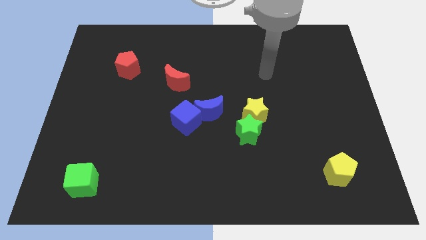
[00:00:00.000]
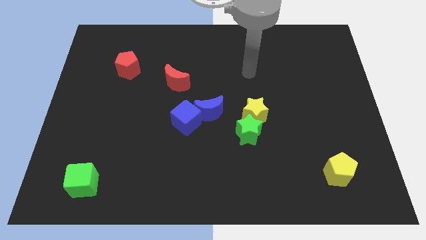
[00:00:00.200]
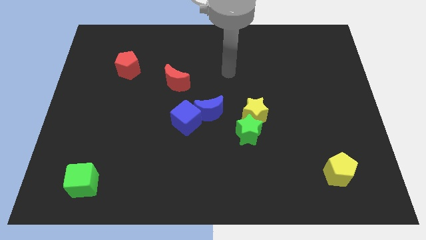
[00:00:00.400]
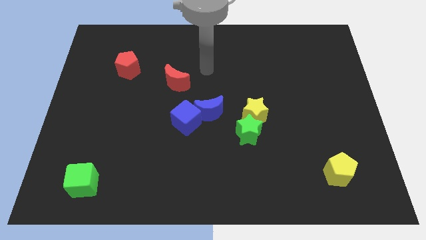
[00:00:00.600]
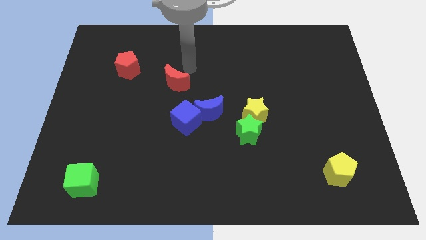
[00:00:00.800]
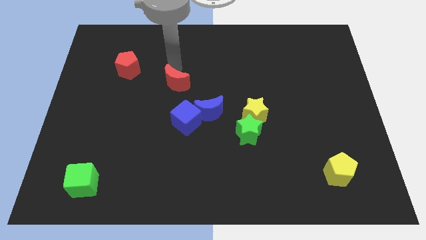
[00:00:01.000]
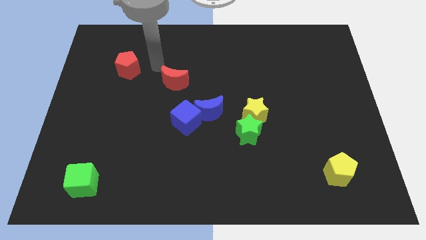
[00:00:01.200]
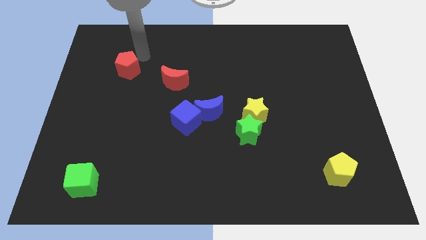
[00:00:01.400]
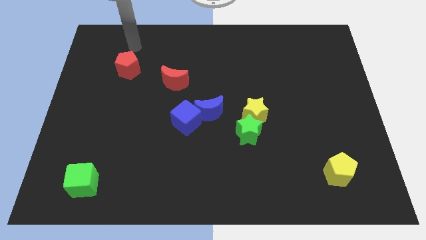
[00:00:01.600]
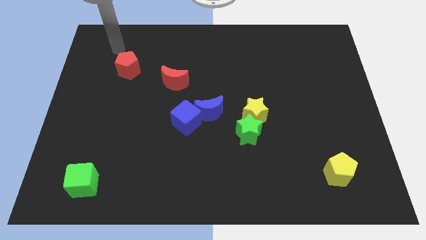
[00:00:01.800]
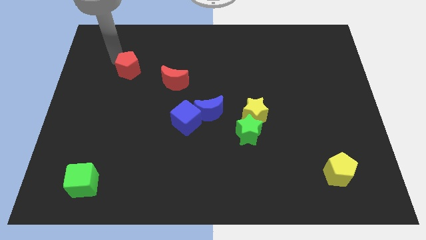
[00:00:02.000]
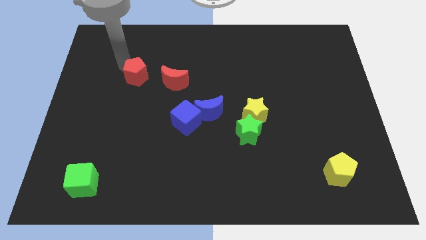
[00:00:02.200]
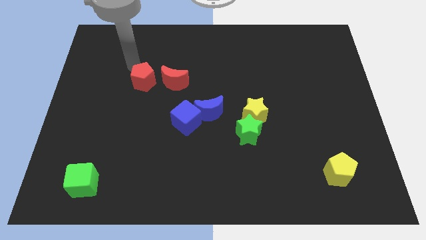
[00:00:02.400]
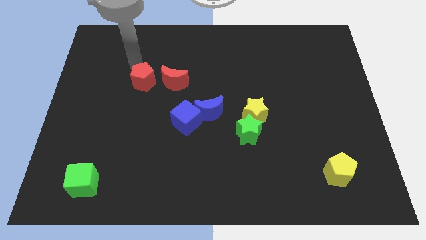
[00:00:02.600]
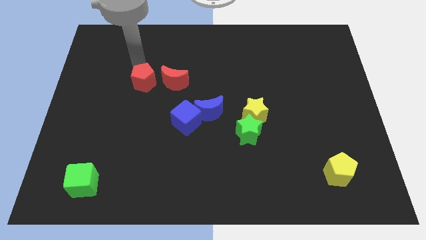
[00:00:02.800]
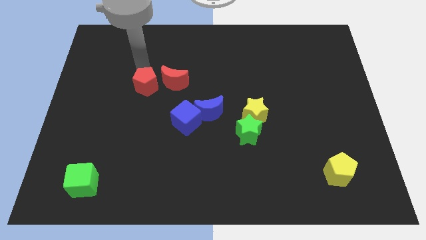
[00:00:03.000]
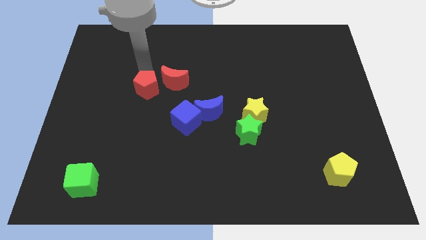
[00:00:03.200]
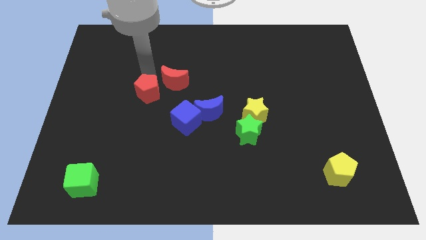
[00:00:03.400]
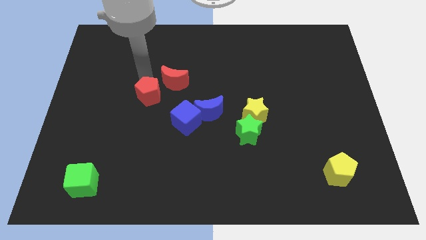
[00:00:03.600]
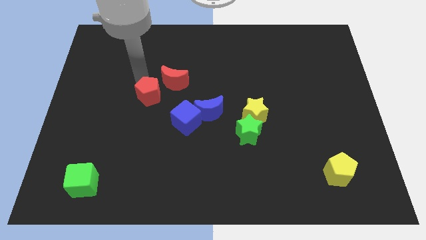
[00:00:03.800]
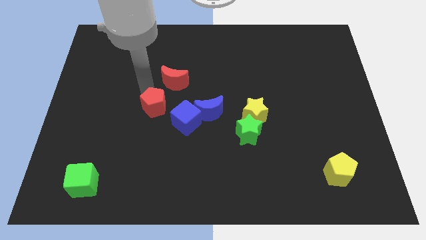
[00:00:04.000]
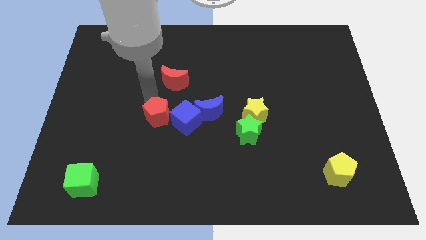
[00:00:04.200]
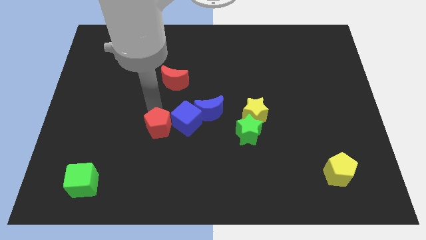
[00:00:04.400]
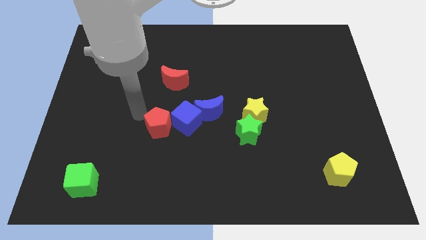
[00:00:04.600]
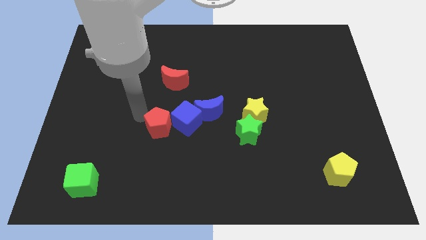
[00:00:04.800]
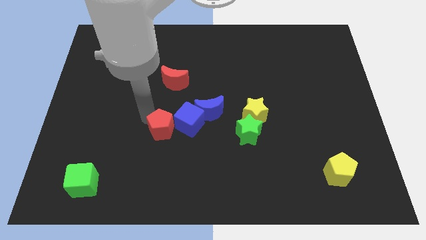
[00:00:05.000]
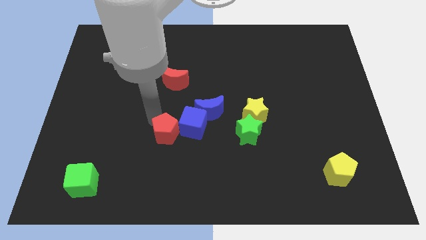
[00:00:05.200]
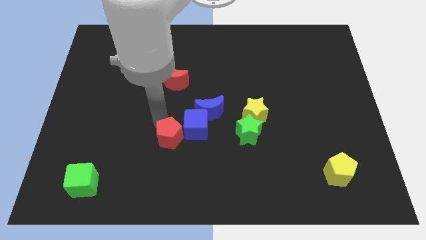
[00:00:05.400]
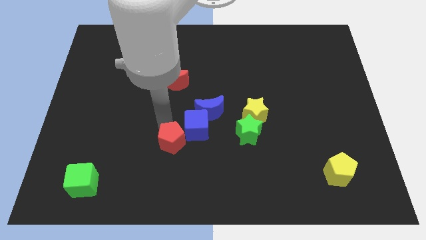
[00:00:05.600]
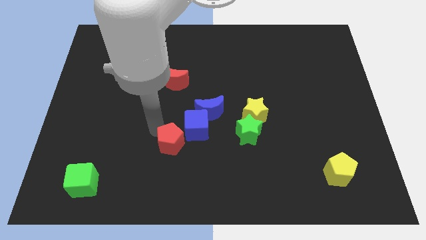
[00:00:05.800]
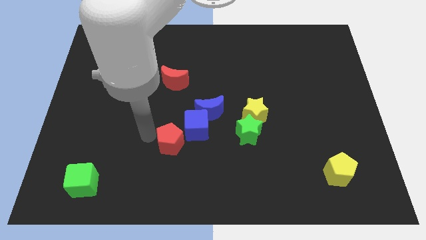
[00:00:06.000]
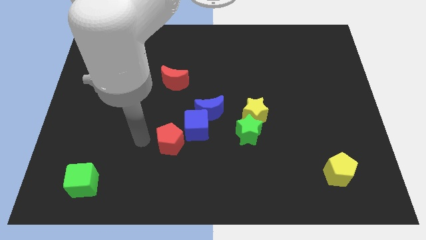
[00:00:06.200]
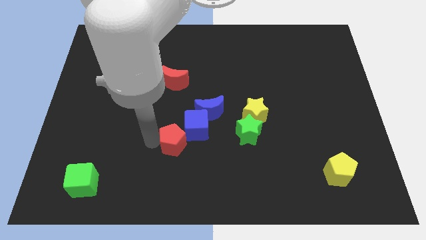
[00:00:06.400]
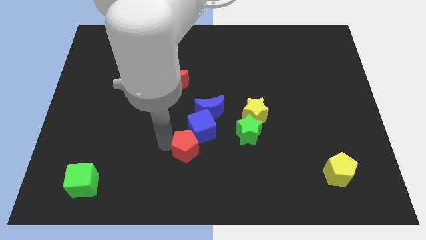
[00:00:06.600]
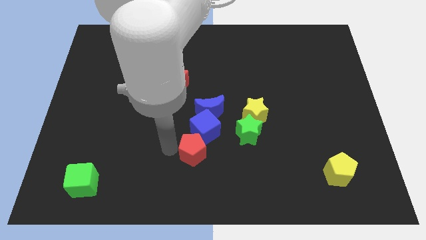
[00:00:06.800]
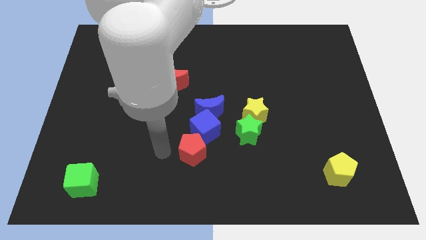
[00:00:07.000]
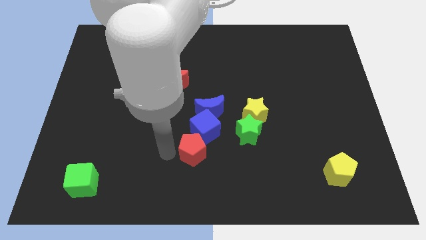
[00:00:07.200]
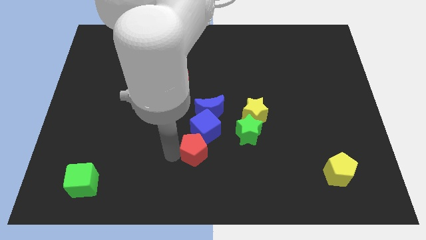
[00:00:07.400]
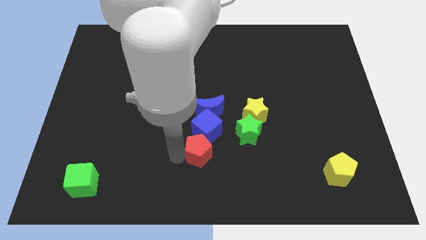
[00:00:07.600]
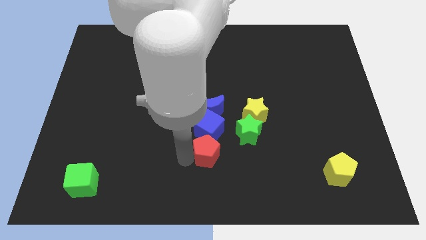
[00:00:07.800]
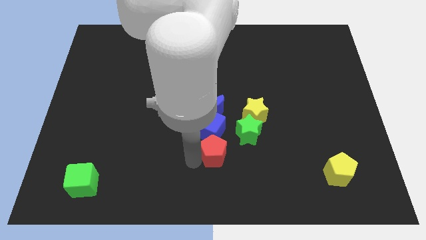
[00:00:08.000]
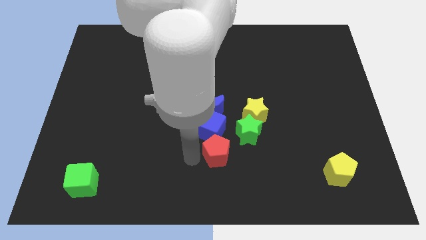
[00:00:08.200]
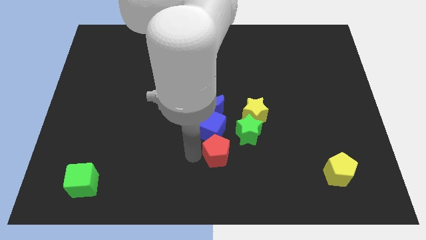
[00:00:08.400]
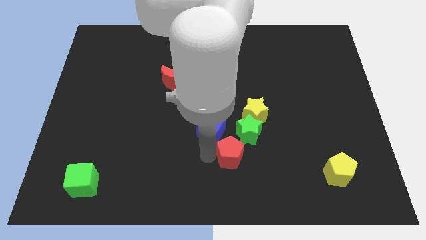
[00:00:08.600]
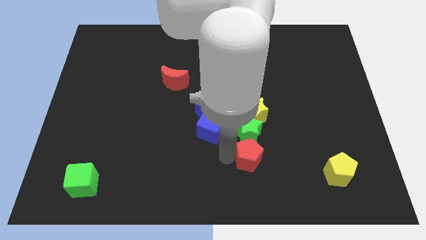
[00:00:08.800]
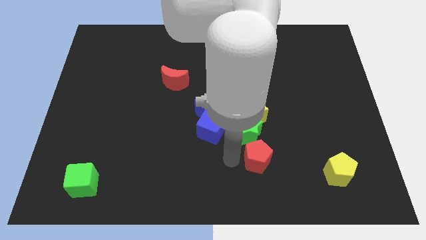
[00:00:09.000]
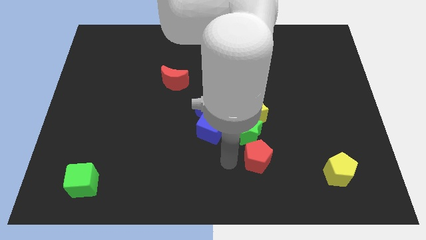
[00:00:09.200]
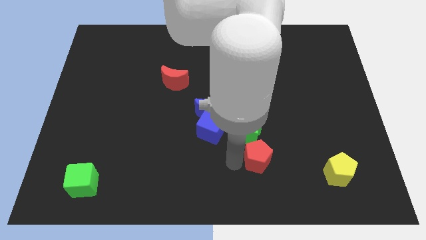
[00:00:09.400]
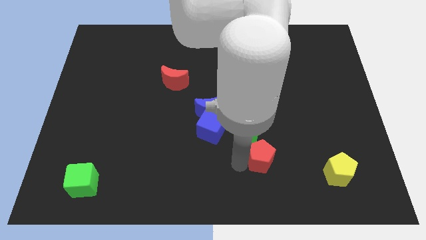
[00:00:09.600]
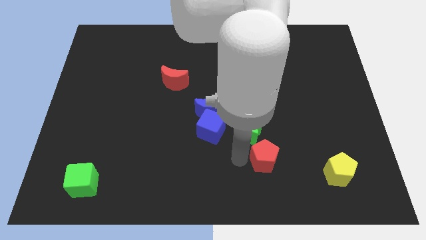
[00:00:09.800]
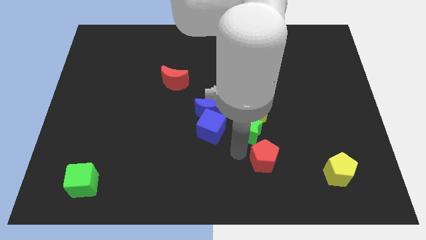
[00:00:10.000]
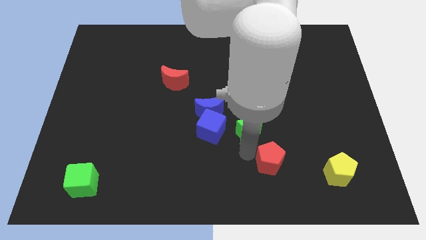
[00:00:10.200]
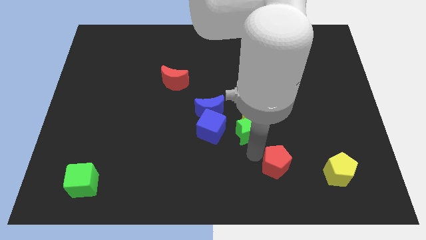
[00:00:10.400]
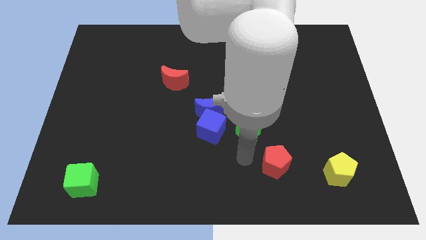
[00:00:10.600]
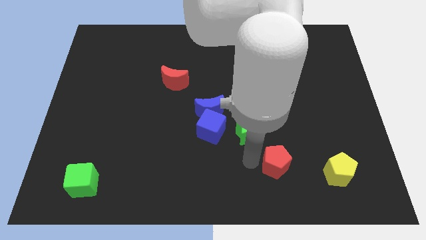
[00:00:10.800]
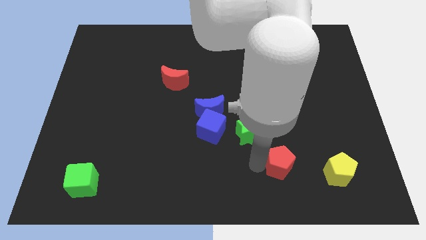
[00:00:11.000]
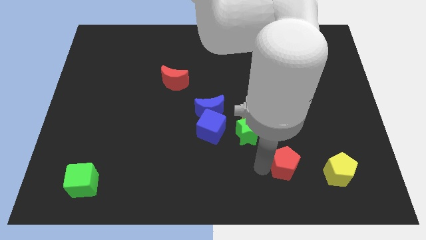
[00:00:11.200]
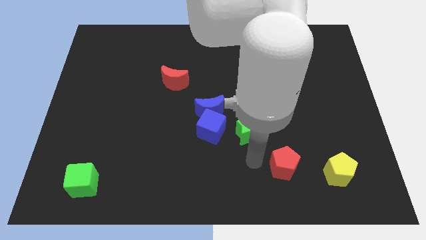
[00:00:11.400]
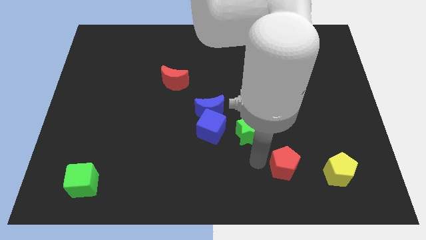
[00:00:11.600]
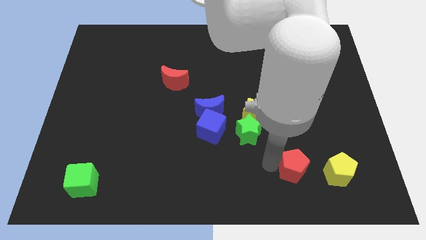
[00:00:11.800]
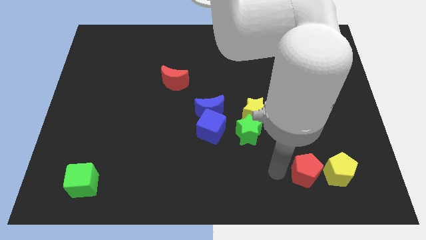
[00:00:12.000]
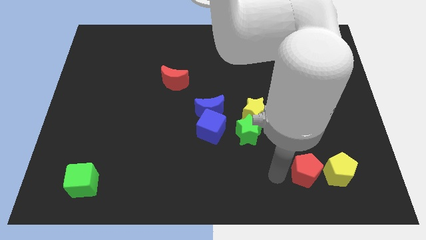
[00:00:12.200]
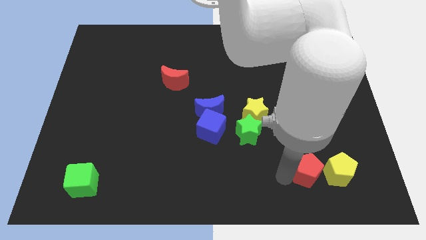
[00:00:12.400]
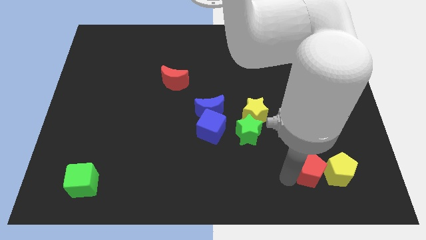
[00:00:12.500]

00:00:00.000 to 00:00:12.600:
slide the red pentagon to the yellow pentagon

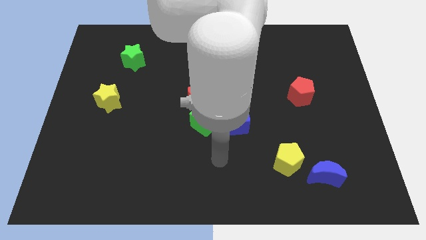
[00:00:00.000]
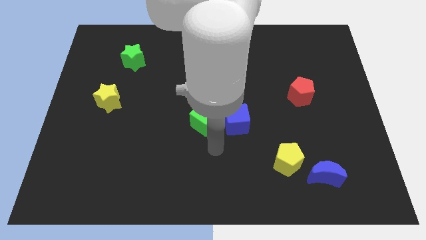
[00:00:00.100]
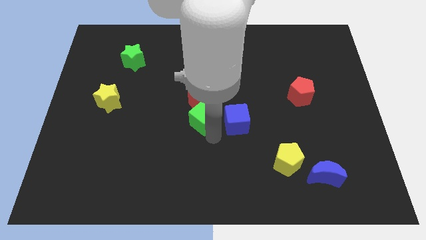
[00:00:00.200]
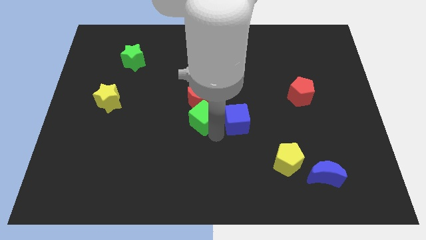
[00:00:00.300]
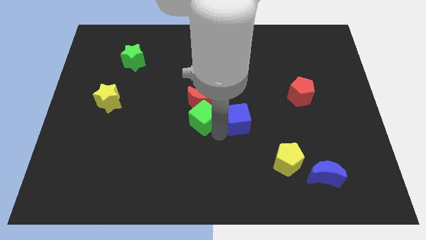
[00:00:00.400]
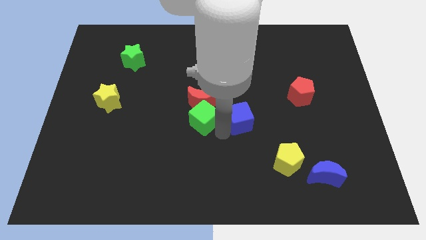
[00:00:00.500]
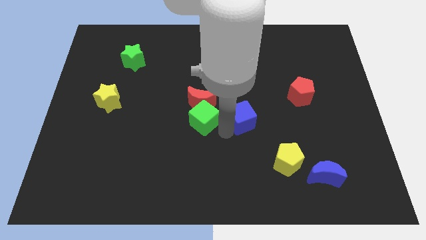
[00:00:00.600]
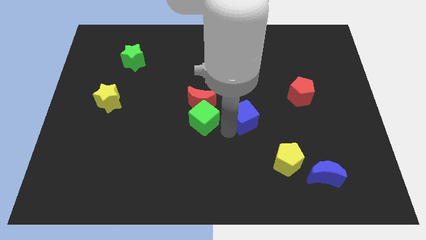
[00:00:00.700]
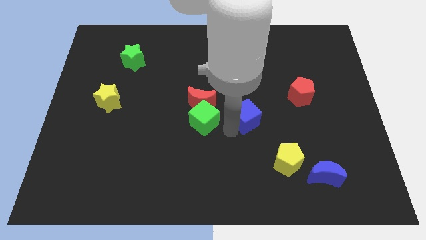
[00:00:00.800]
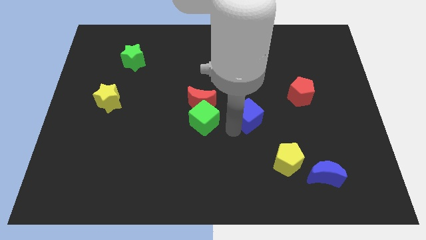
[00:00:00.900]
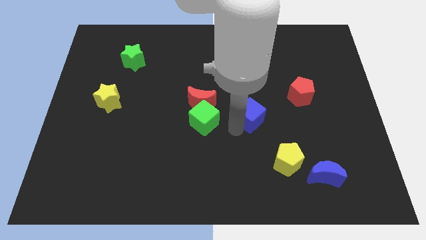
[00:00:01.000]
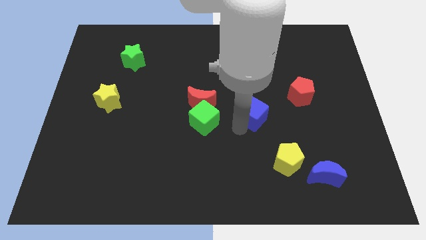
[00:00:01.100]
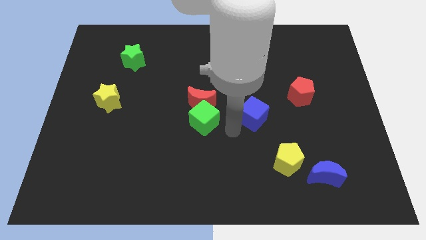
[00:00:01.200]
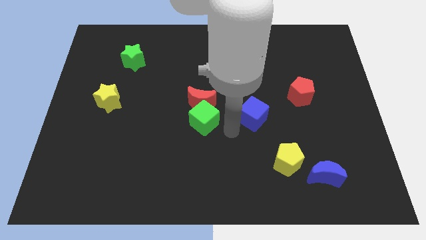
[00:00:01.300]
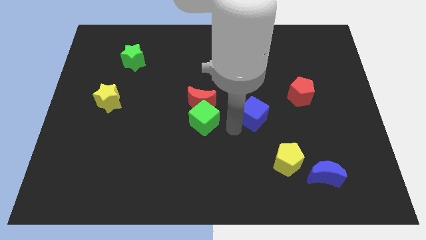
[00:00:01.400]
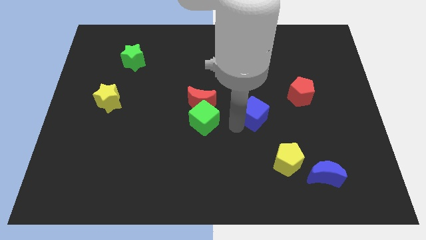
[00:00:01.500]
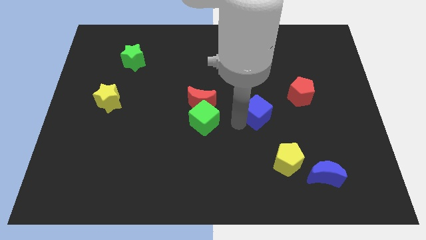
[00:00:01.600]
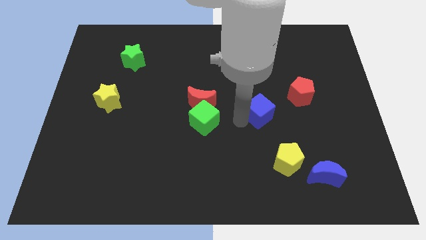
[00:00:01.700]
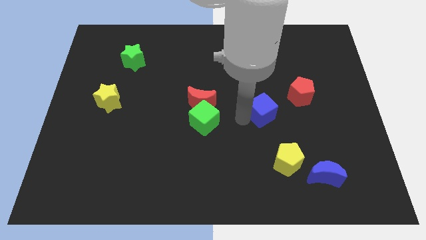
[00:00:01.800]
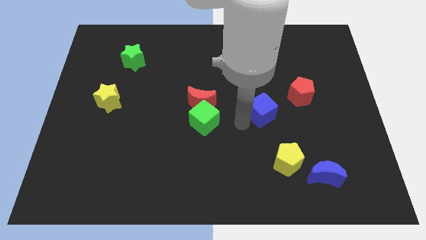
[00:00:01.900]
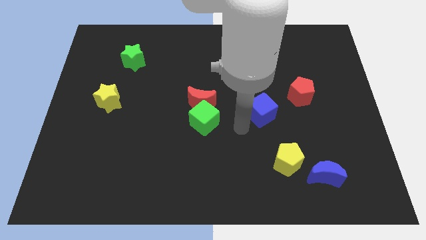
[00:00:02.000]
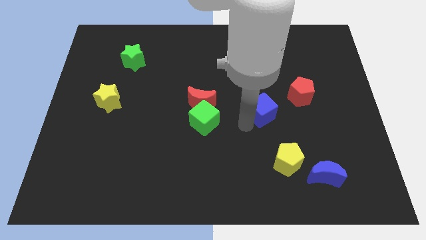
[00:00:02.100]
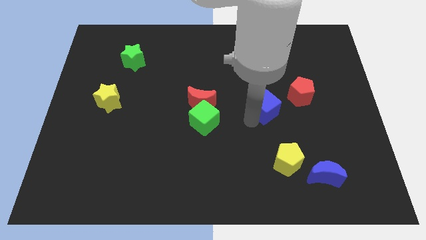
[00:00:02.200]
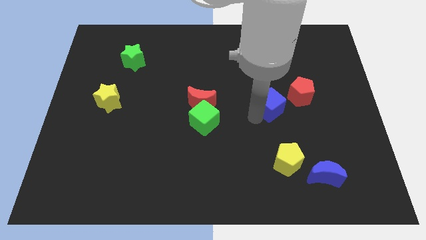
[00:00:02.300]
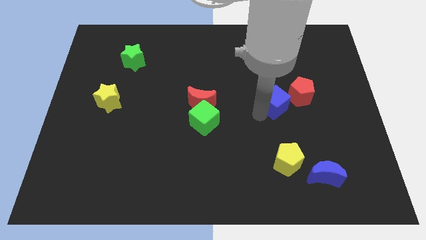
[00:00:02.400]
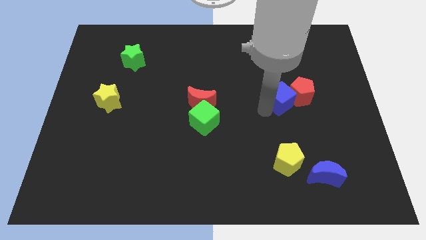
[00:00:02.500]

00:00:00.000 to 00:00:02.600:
slide the blue cube towards the red pentagon
